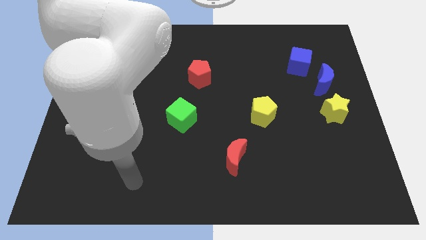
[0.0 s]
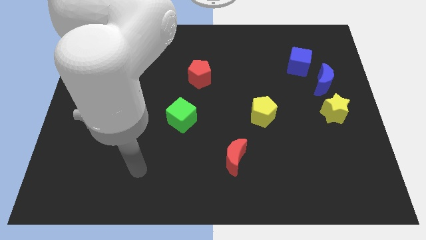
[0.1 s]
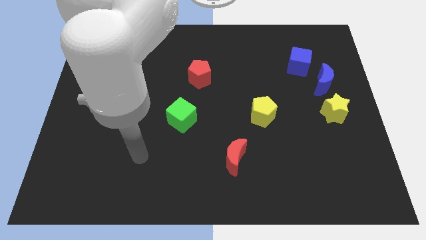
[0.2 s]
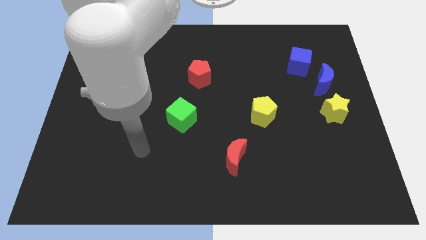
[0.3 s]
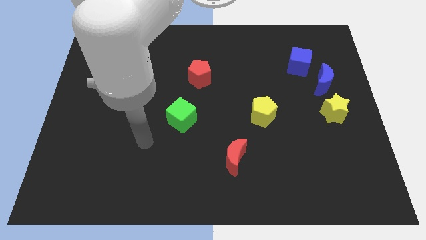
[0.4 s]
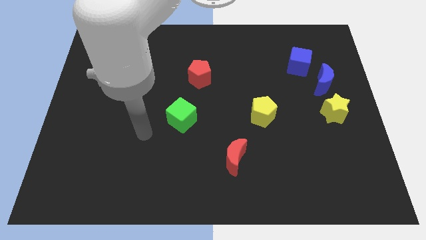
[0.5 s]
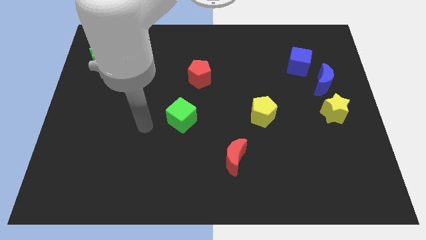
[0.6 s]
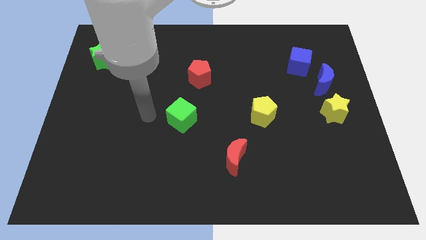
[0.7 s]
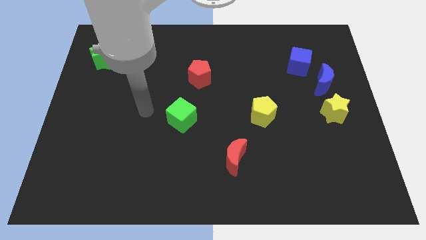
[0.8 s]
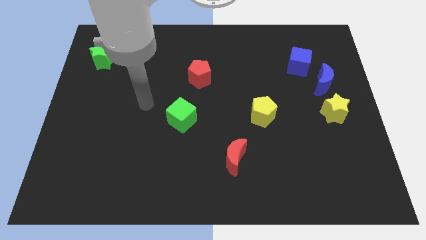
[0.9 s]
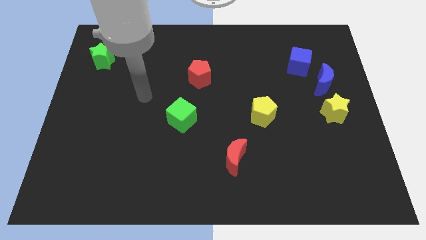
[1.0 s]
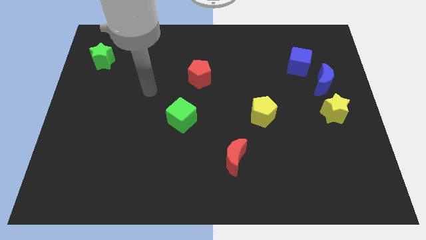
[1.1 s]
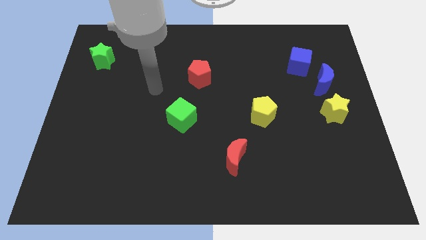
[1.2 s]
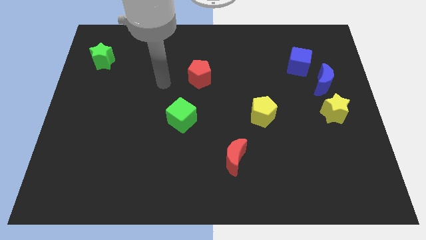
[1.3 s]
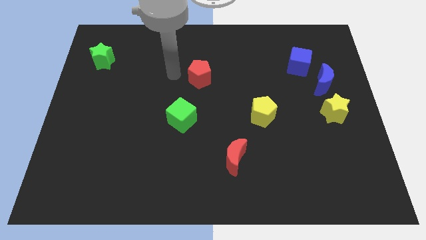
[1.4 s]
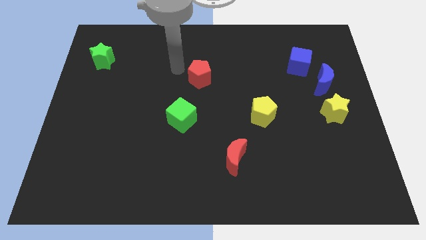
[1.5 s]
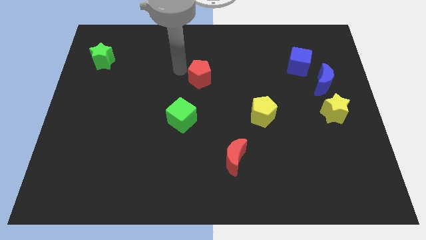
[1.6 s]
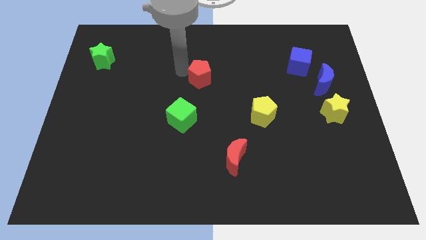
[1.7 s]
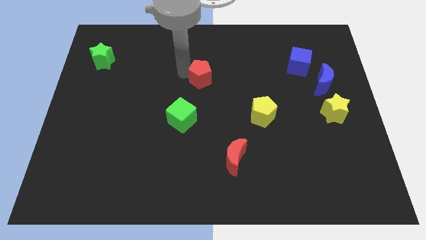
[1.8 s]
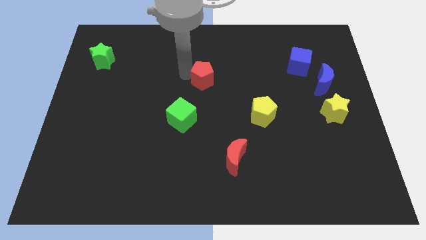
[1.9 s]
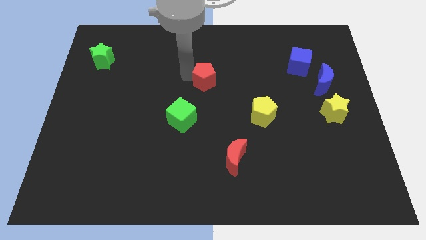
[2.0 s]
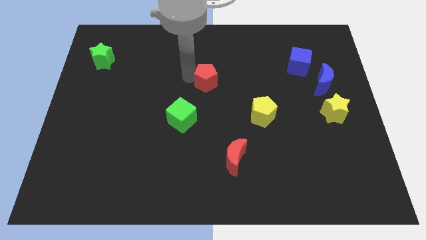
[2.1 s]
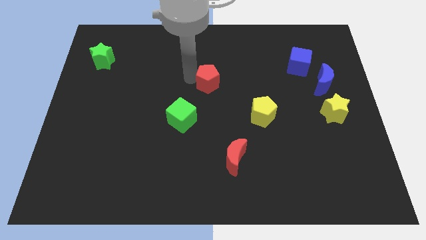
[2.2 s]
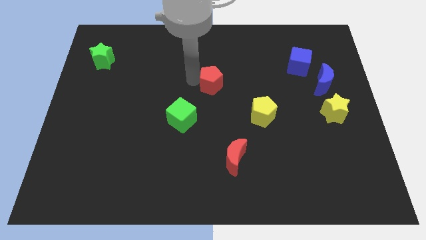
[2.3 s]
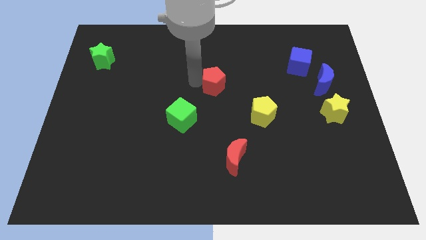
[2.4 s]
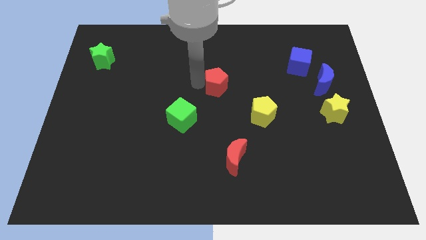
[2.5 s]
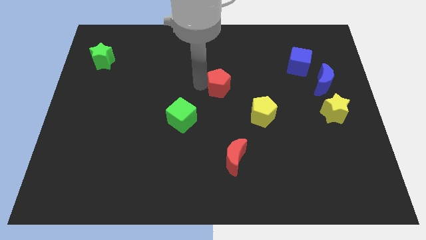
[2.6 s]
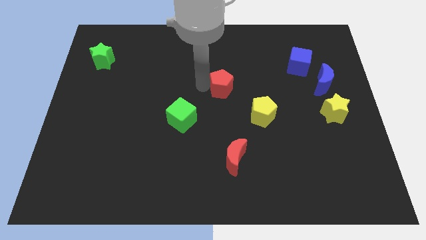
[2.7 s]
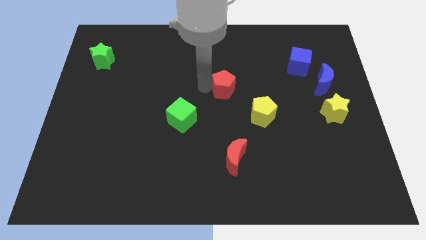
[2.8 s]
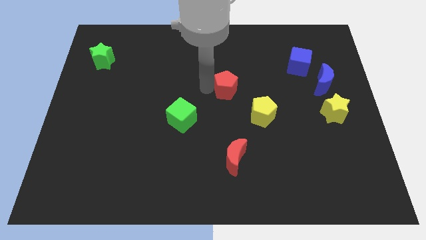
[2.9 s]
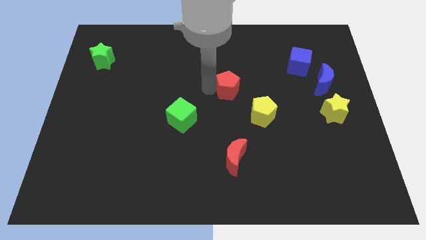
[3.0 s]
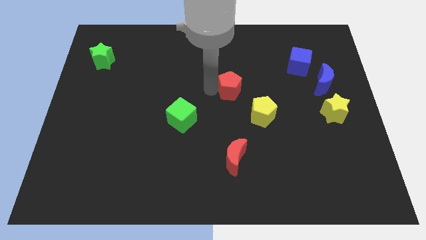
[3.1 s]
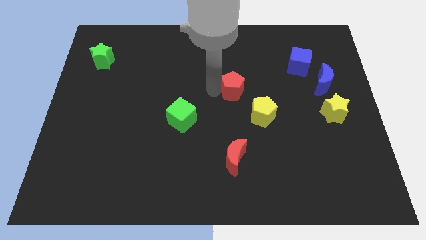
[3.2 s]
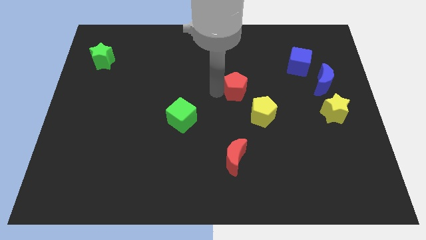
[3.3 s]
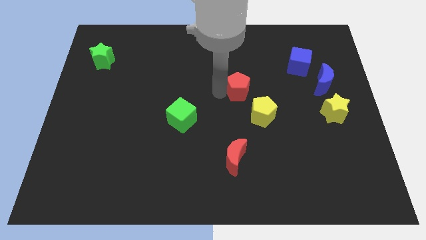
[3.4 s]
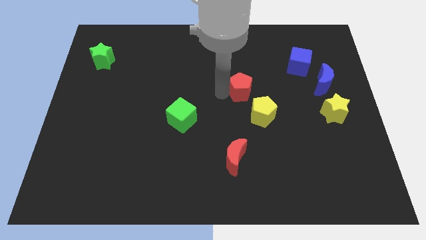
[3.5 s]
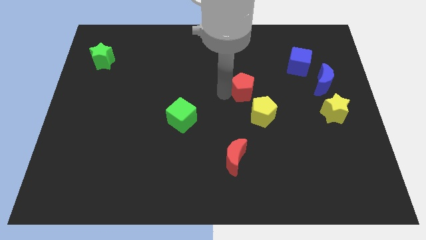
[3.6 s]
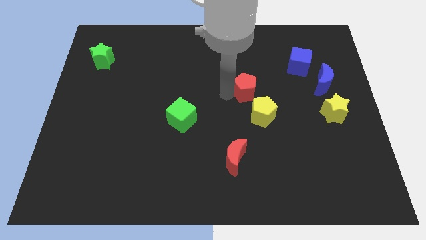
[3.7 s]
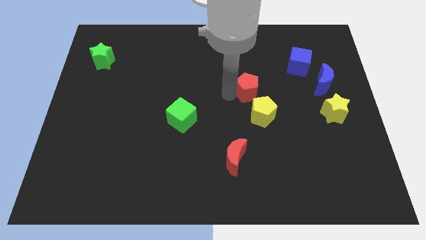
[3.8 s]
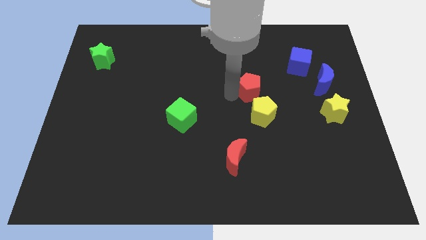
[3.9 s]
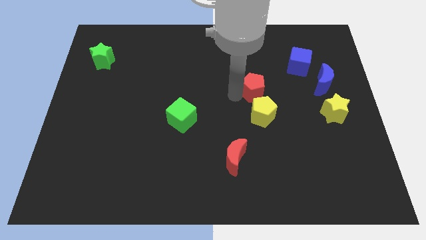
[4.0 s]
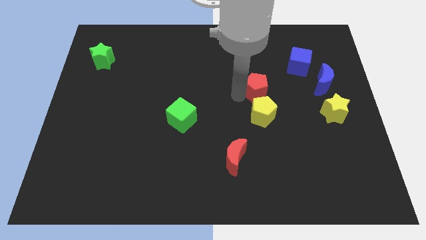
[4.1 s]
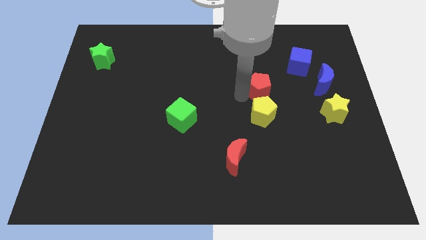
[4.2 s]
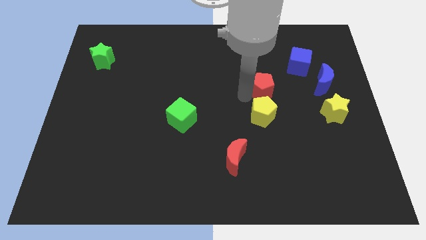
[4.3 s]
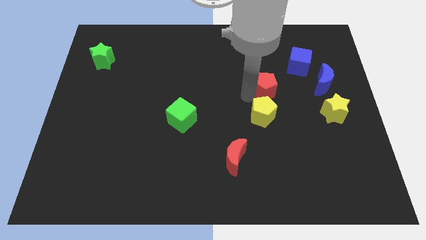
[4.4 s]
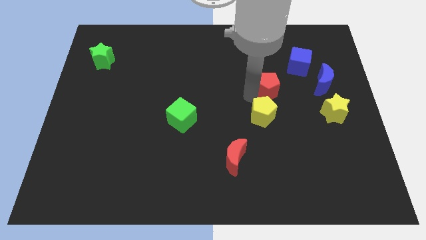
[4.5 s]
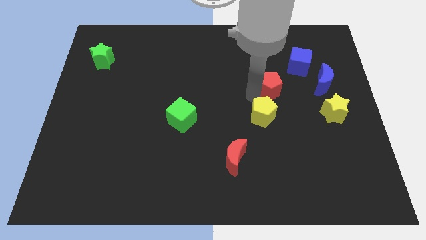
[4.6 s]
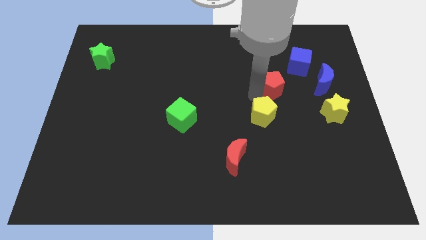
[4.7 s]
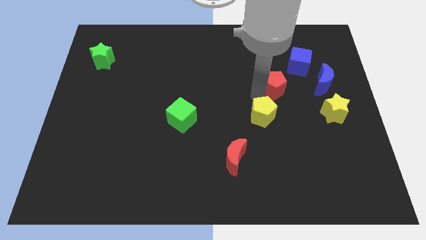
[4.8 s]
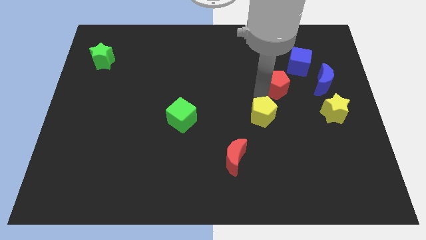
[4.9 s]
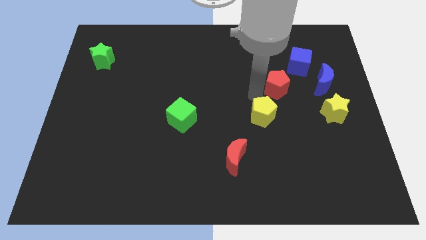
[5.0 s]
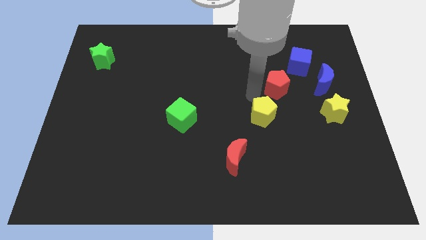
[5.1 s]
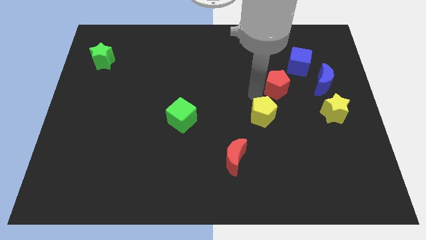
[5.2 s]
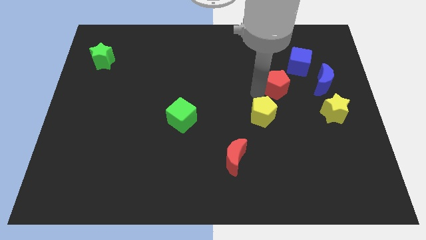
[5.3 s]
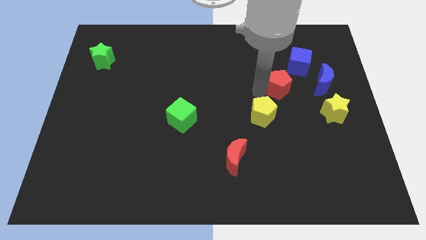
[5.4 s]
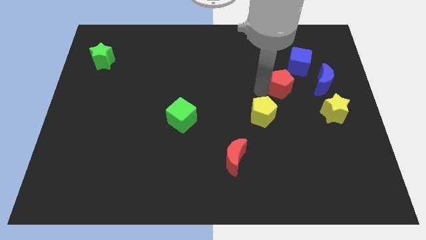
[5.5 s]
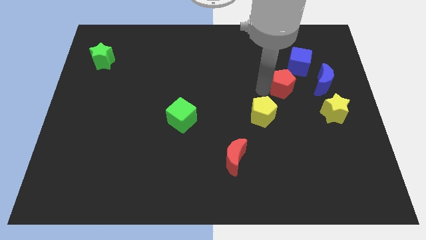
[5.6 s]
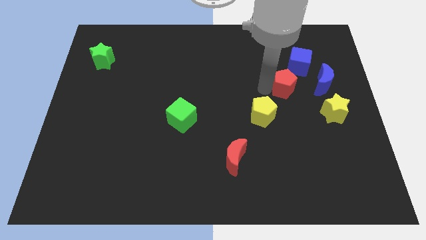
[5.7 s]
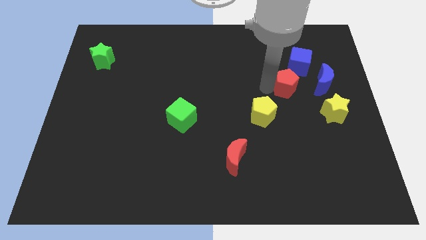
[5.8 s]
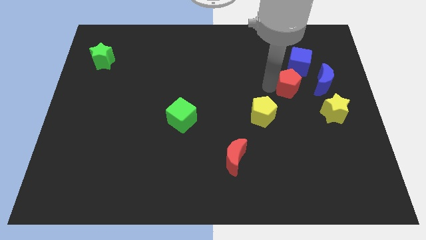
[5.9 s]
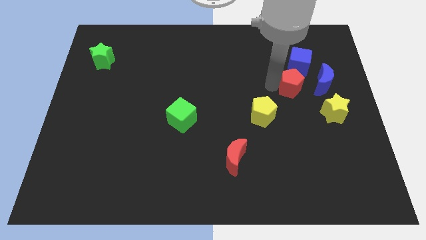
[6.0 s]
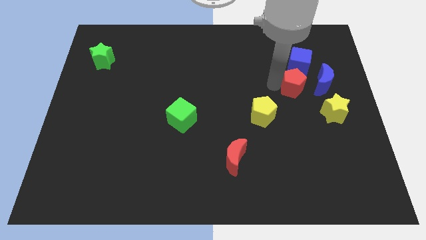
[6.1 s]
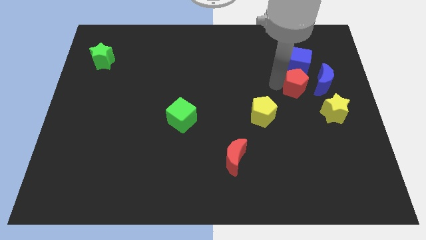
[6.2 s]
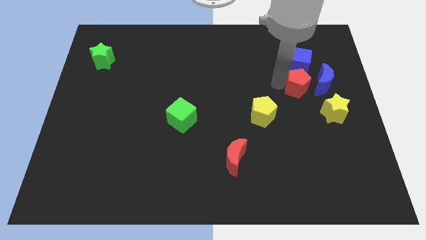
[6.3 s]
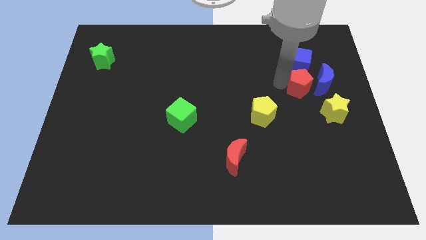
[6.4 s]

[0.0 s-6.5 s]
slide the red pentagon next to the blue moon

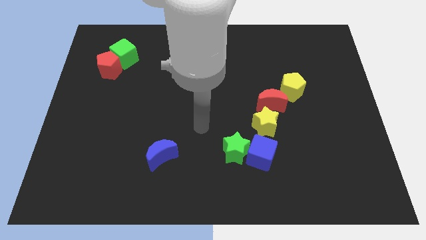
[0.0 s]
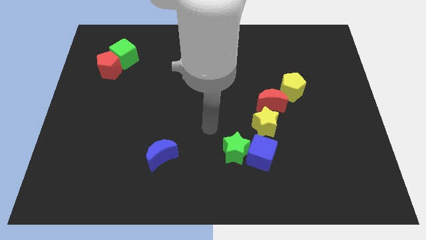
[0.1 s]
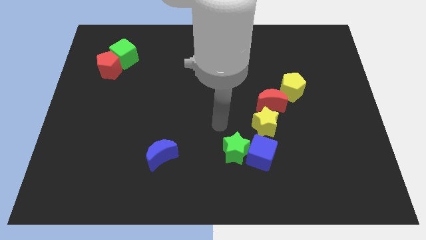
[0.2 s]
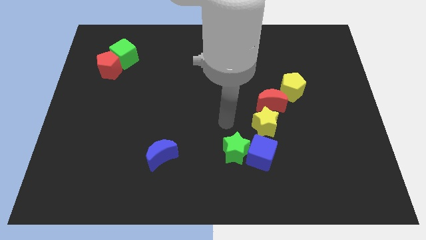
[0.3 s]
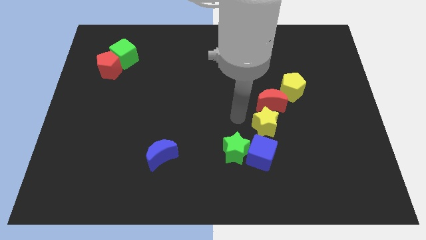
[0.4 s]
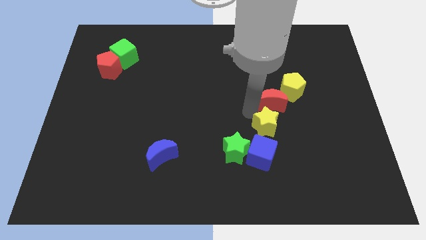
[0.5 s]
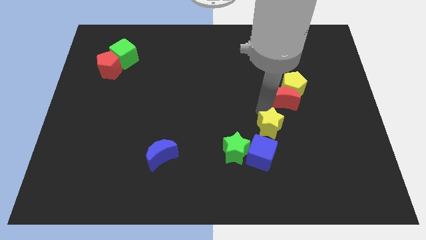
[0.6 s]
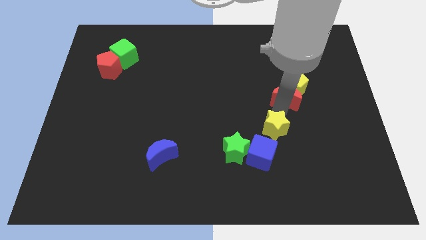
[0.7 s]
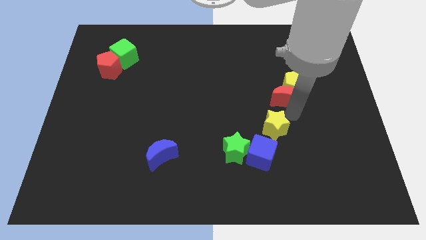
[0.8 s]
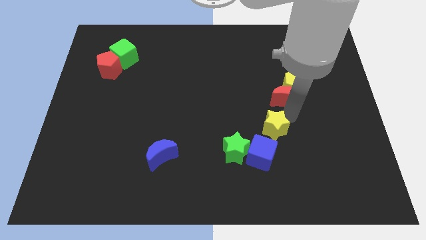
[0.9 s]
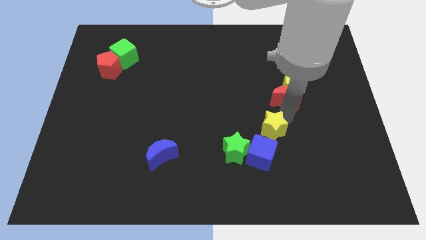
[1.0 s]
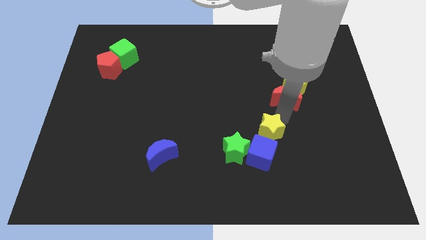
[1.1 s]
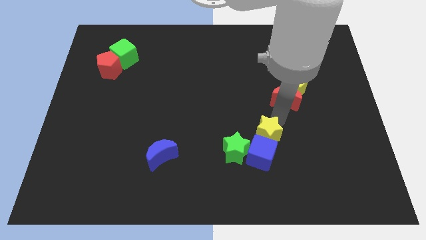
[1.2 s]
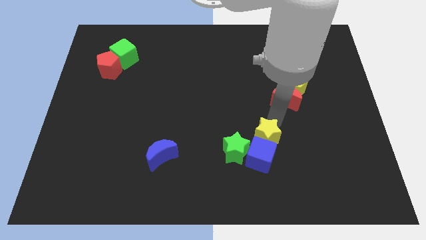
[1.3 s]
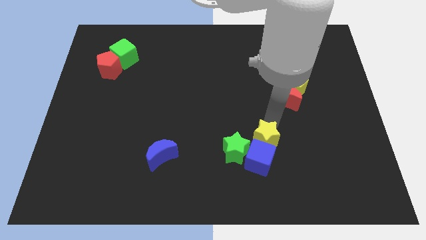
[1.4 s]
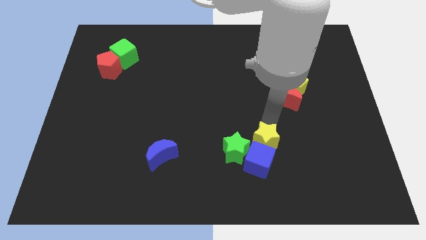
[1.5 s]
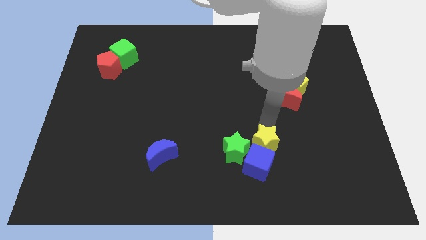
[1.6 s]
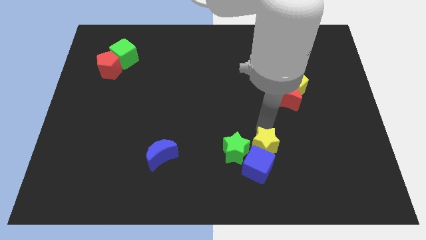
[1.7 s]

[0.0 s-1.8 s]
push the yellow star close to the green star
